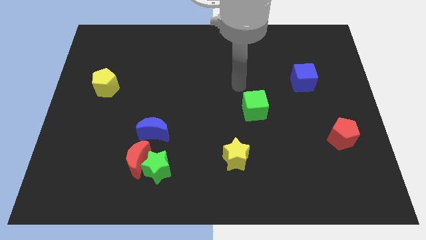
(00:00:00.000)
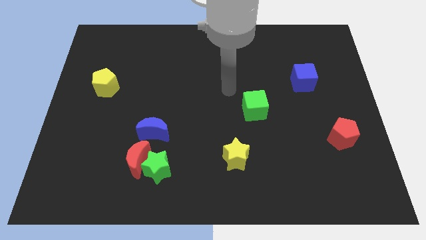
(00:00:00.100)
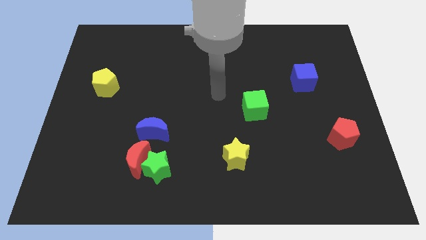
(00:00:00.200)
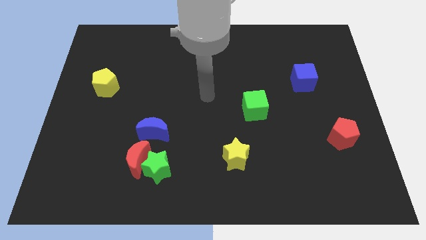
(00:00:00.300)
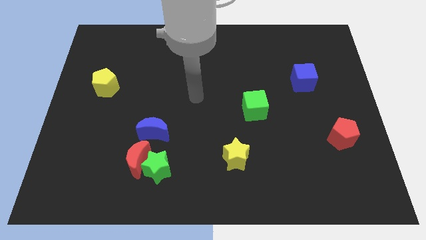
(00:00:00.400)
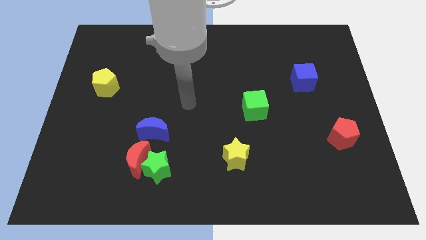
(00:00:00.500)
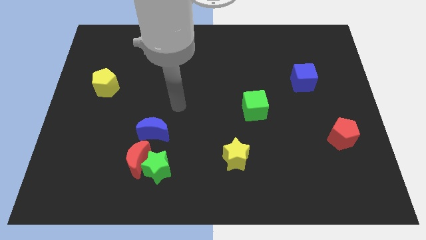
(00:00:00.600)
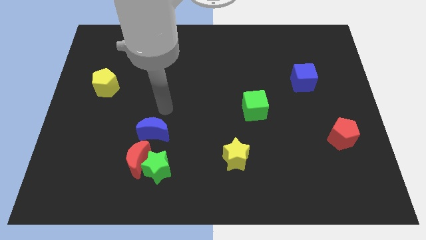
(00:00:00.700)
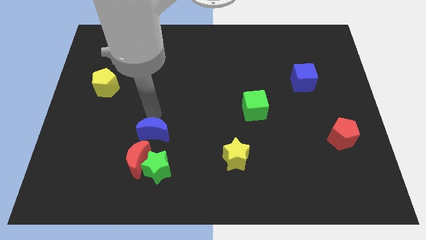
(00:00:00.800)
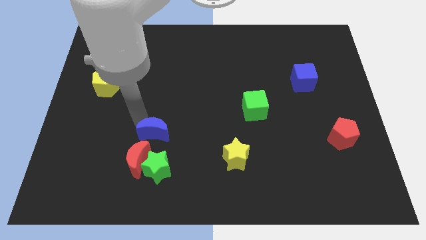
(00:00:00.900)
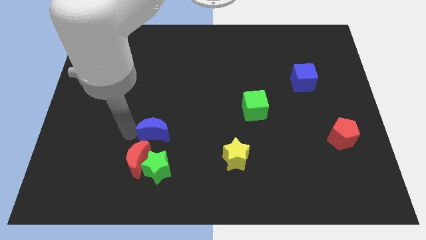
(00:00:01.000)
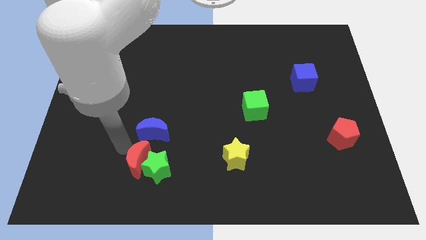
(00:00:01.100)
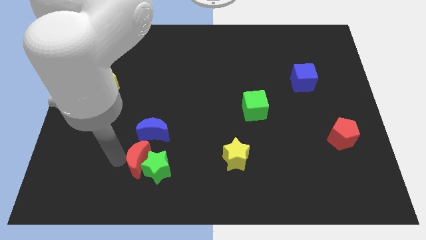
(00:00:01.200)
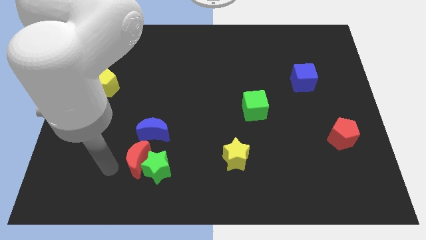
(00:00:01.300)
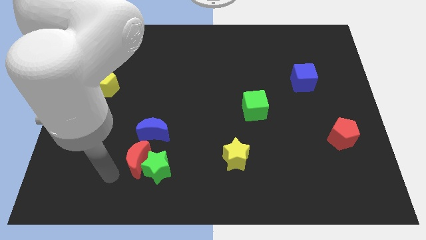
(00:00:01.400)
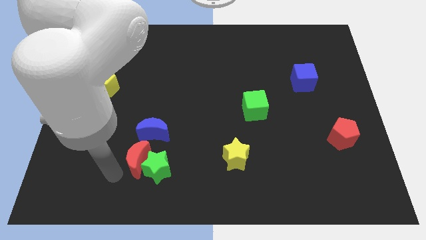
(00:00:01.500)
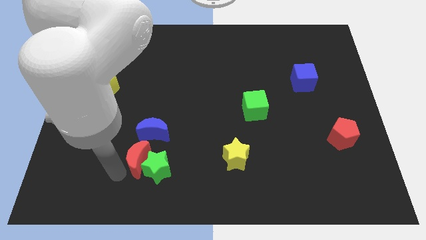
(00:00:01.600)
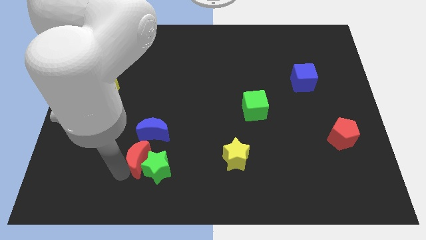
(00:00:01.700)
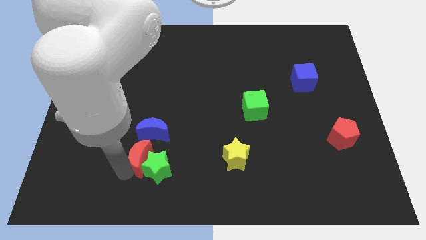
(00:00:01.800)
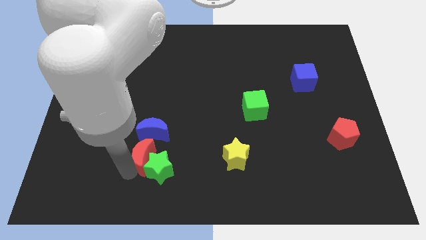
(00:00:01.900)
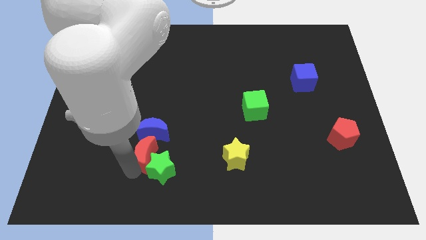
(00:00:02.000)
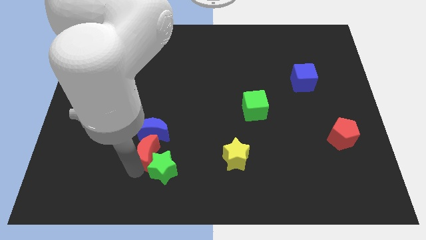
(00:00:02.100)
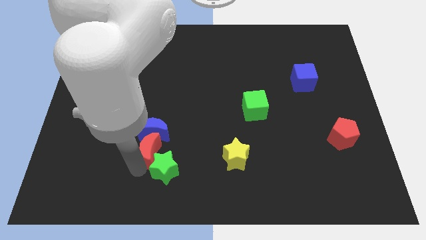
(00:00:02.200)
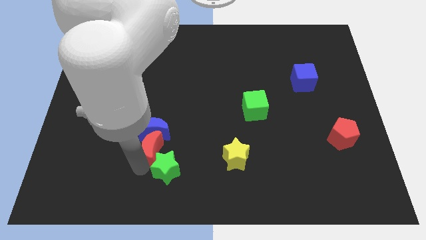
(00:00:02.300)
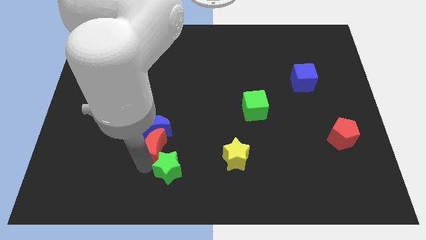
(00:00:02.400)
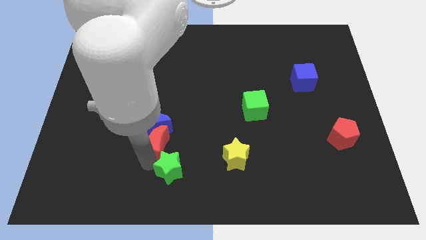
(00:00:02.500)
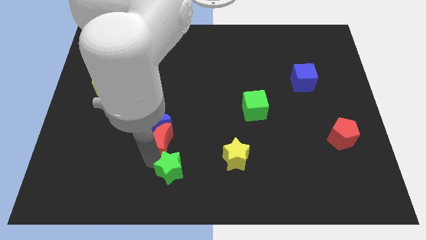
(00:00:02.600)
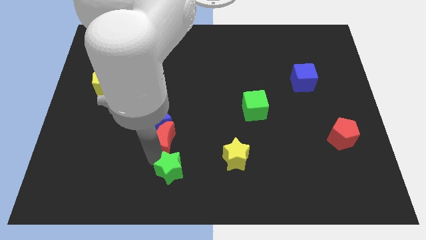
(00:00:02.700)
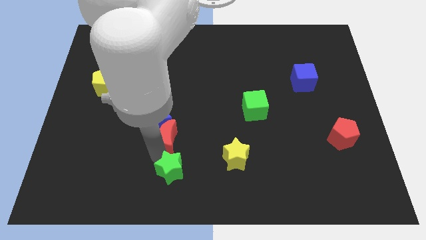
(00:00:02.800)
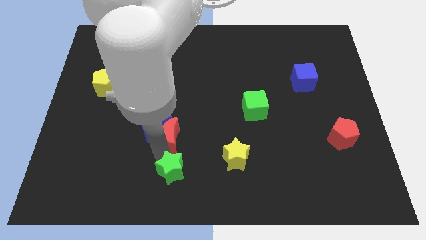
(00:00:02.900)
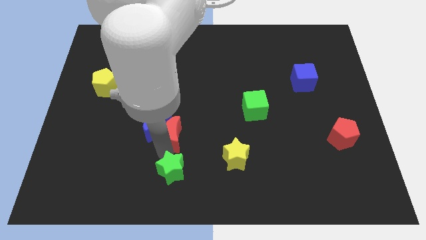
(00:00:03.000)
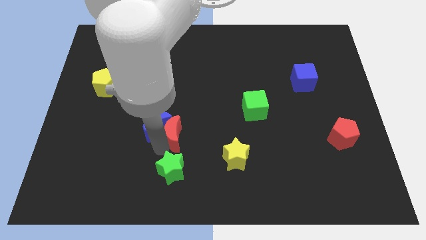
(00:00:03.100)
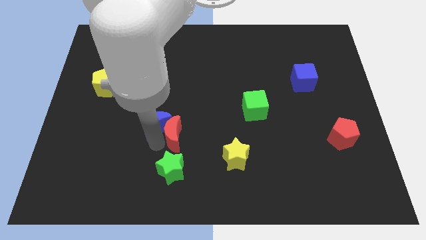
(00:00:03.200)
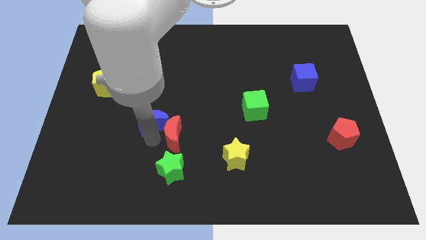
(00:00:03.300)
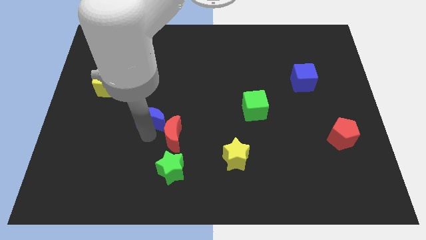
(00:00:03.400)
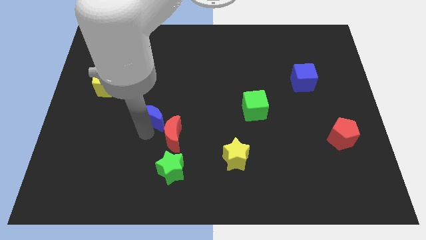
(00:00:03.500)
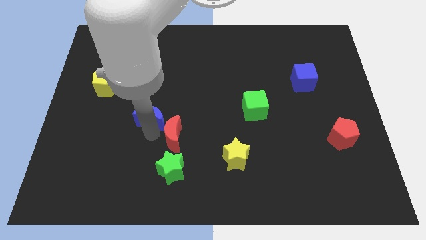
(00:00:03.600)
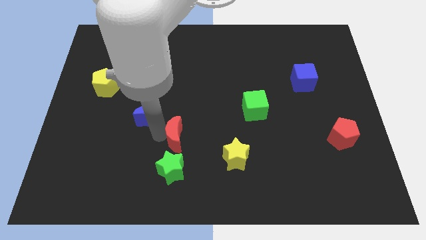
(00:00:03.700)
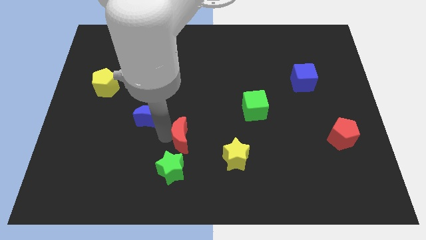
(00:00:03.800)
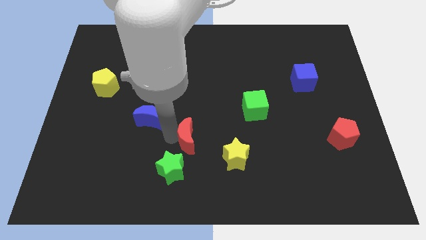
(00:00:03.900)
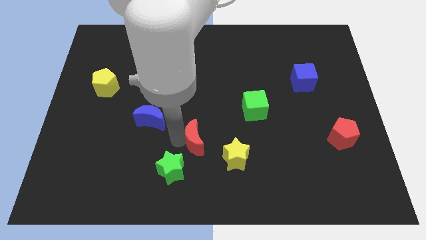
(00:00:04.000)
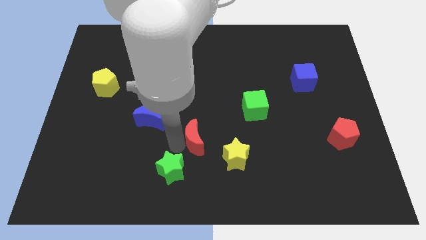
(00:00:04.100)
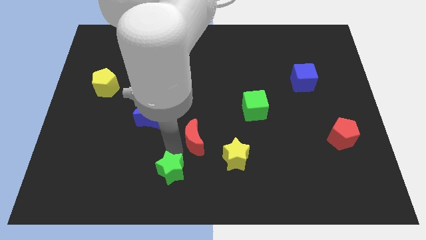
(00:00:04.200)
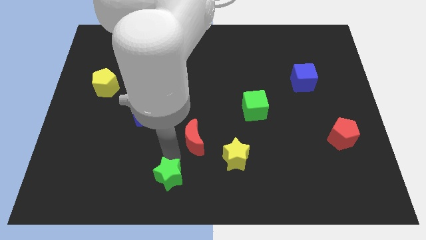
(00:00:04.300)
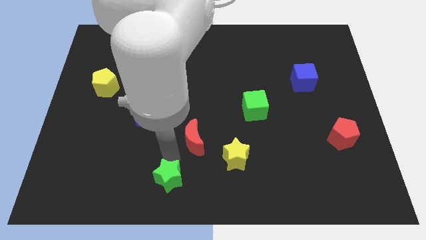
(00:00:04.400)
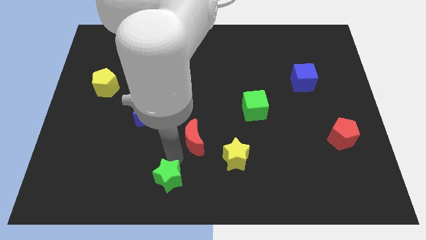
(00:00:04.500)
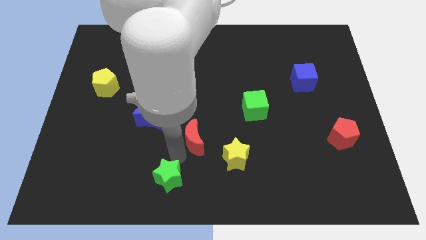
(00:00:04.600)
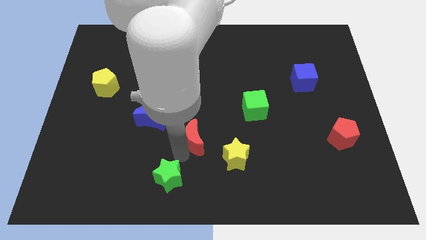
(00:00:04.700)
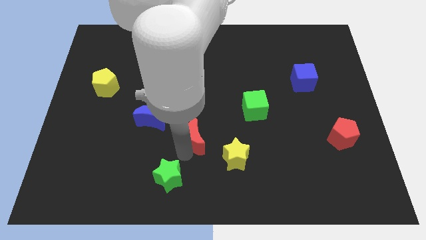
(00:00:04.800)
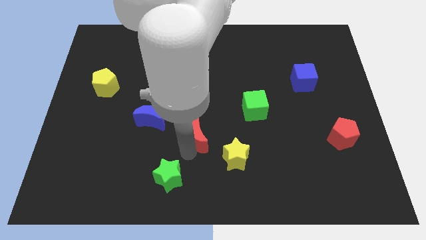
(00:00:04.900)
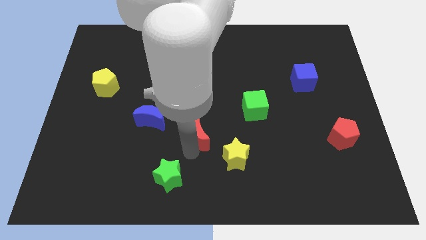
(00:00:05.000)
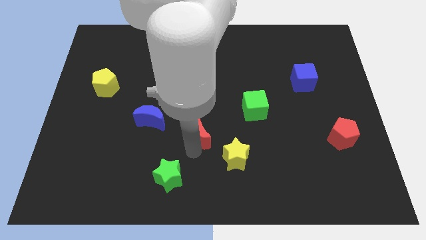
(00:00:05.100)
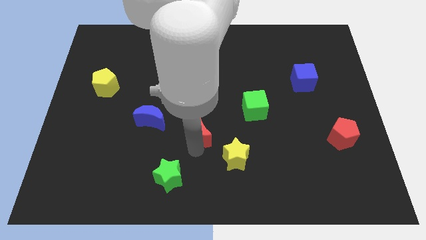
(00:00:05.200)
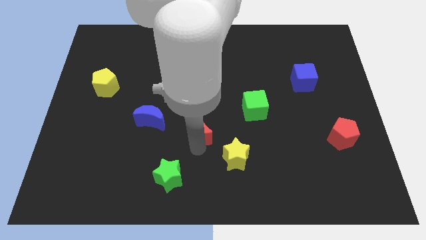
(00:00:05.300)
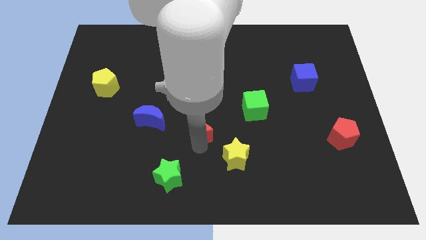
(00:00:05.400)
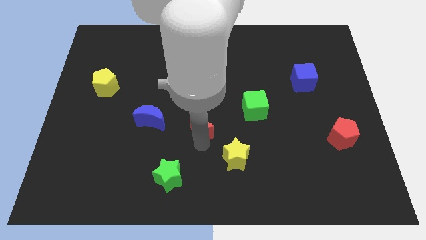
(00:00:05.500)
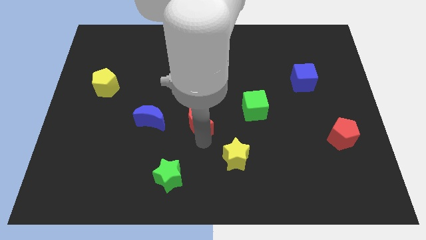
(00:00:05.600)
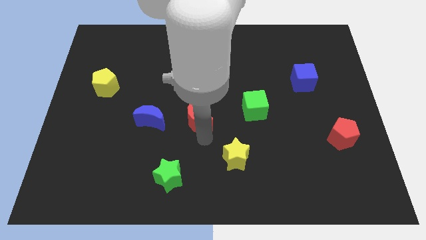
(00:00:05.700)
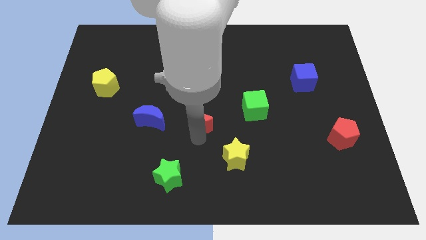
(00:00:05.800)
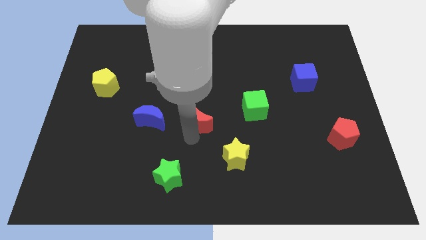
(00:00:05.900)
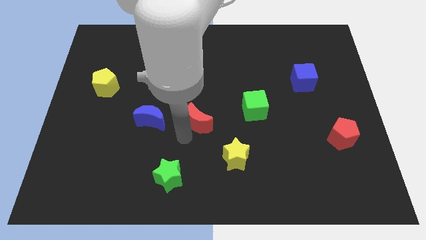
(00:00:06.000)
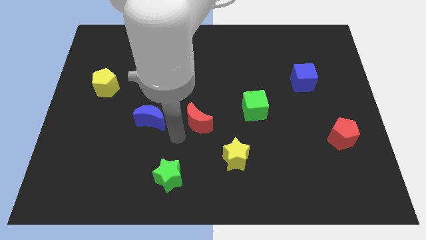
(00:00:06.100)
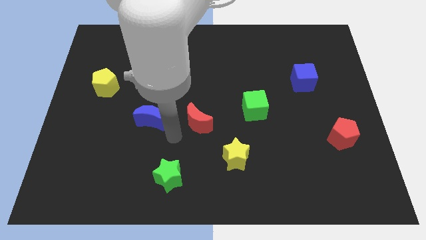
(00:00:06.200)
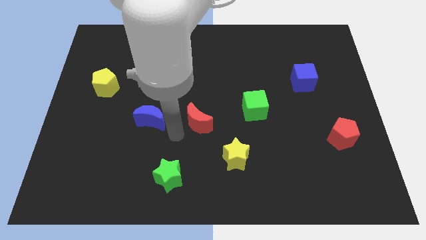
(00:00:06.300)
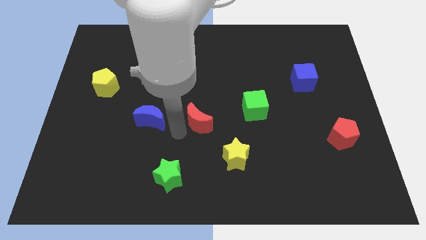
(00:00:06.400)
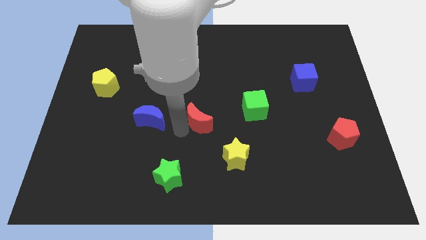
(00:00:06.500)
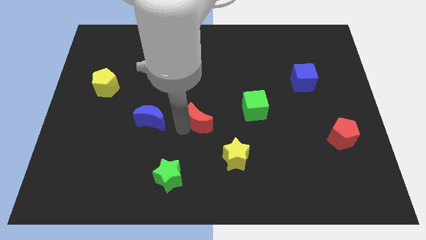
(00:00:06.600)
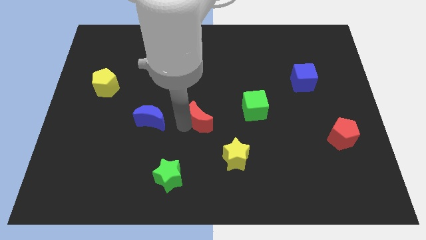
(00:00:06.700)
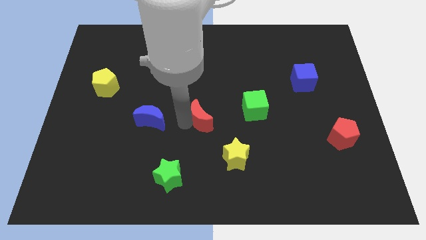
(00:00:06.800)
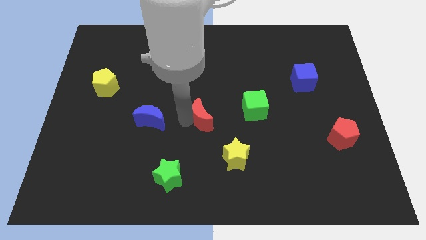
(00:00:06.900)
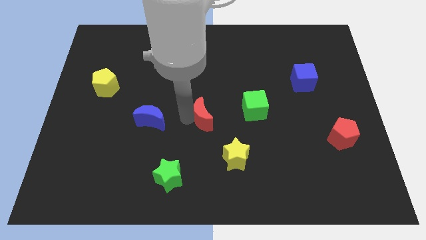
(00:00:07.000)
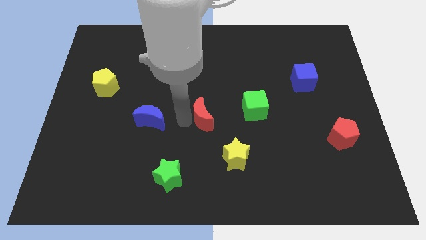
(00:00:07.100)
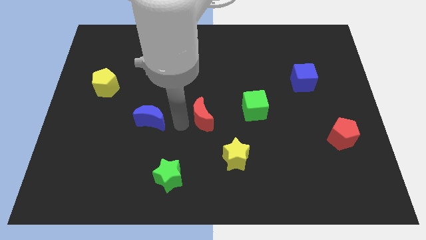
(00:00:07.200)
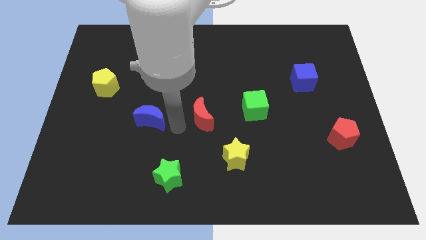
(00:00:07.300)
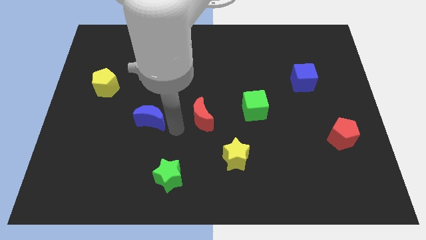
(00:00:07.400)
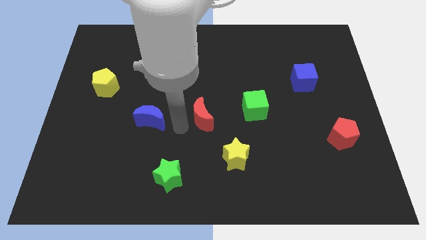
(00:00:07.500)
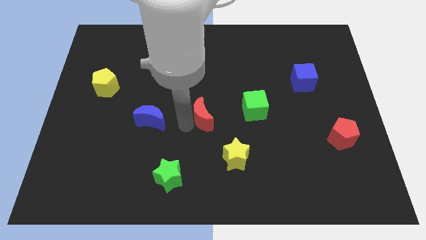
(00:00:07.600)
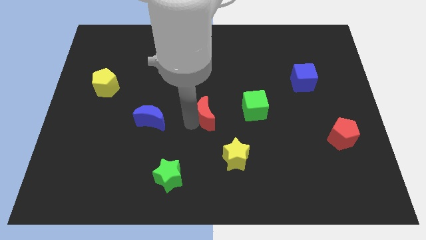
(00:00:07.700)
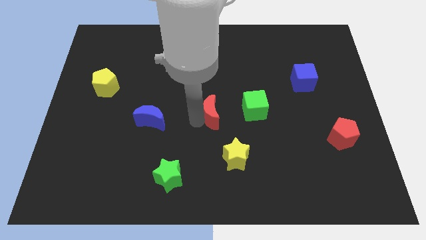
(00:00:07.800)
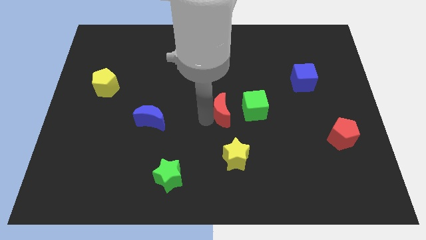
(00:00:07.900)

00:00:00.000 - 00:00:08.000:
push the red moon upwards and right diagonally

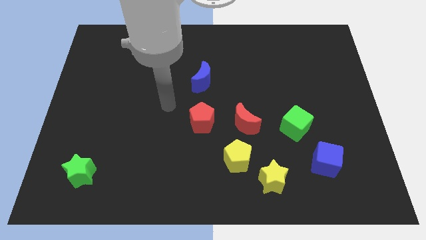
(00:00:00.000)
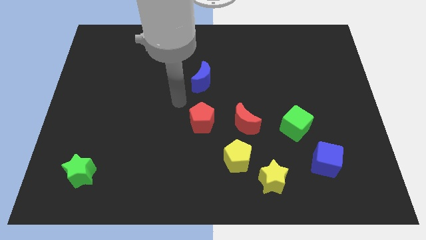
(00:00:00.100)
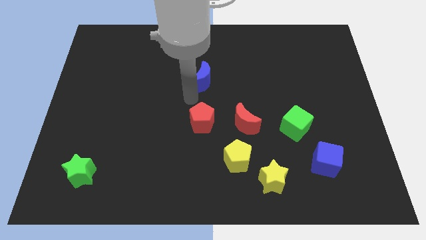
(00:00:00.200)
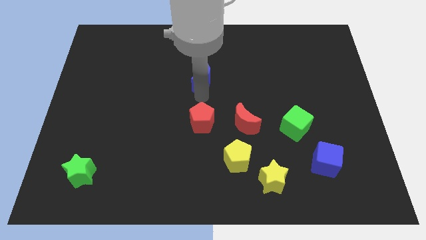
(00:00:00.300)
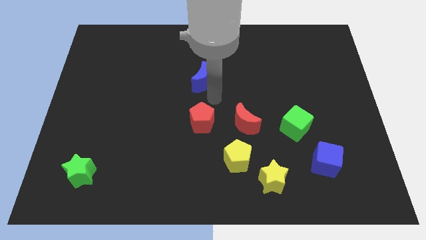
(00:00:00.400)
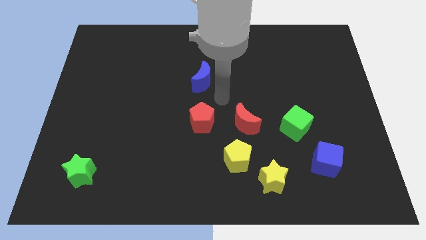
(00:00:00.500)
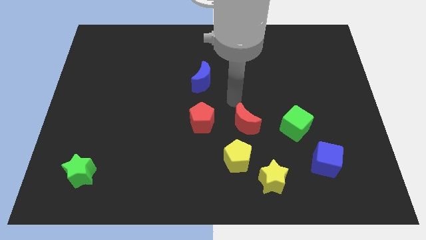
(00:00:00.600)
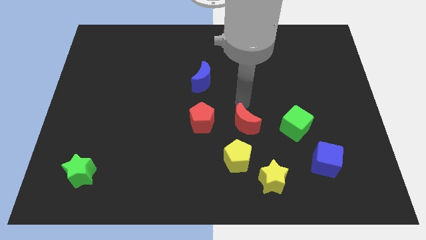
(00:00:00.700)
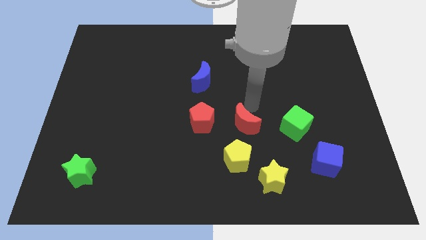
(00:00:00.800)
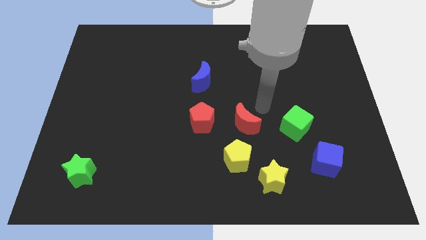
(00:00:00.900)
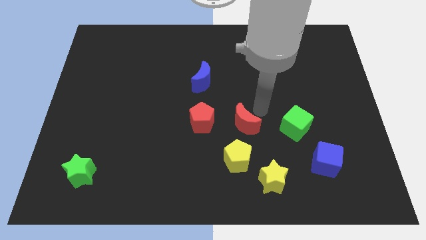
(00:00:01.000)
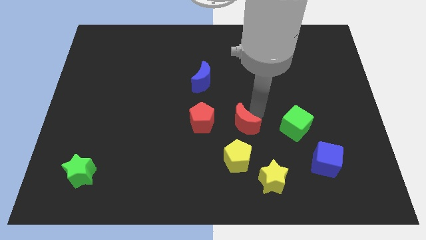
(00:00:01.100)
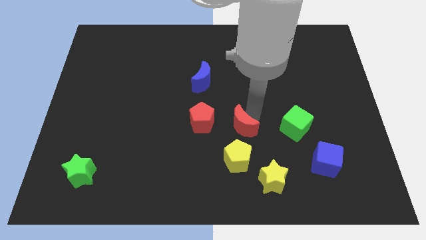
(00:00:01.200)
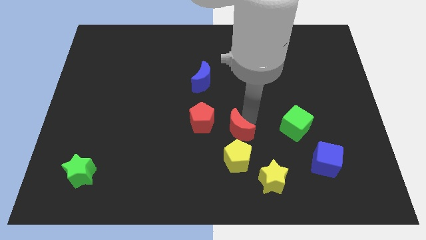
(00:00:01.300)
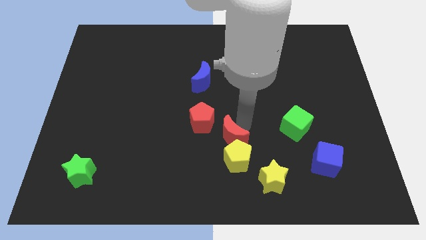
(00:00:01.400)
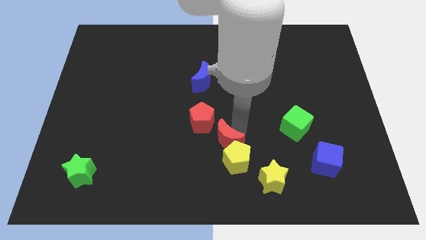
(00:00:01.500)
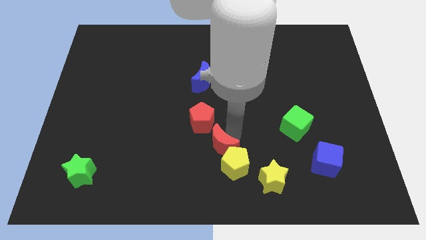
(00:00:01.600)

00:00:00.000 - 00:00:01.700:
slightly move the red moon diagonally downwards and left
